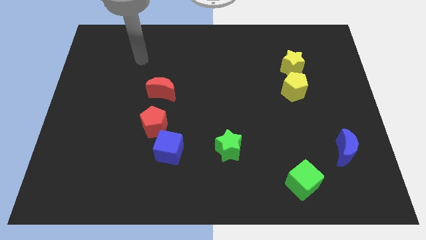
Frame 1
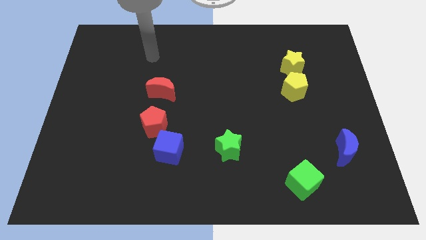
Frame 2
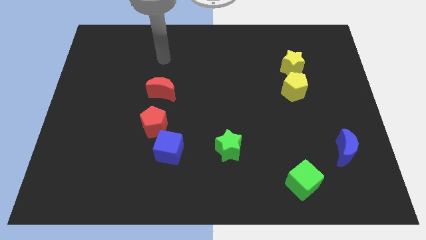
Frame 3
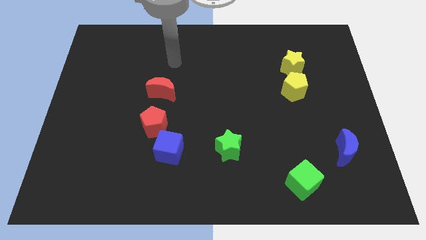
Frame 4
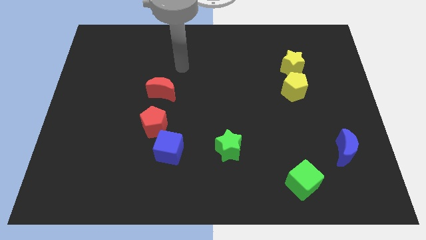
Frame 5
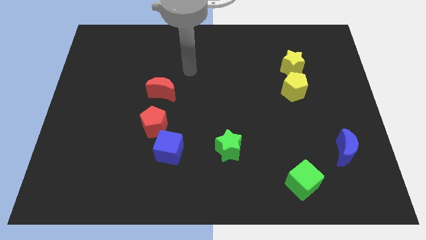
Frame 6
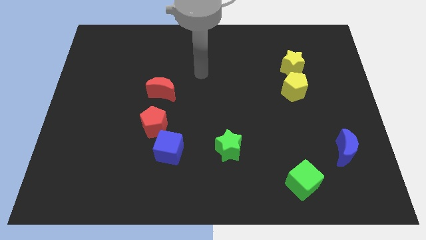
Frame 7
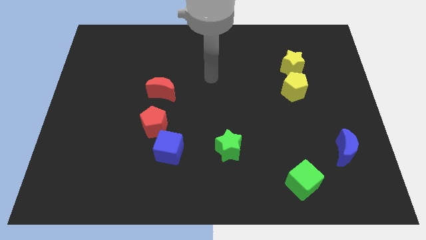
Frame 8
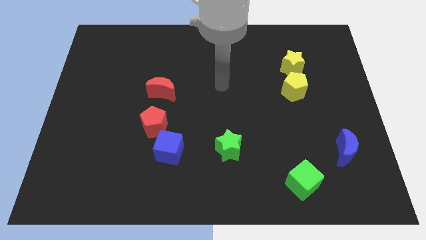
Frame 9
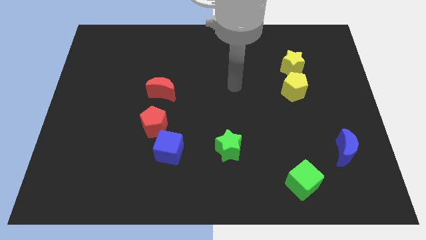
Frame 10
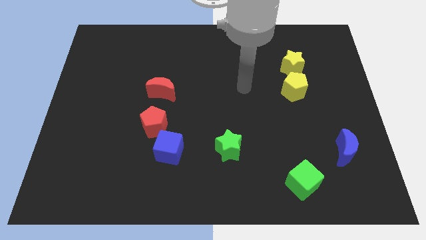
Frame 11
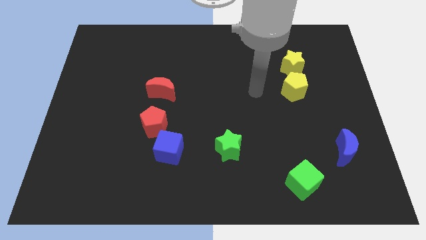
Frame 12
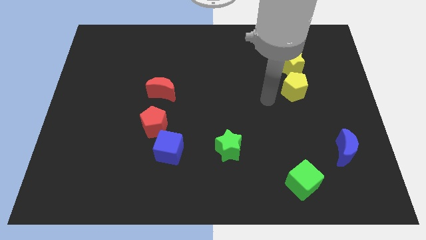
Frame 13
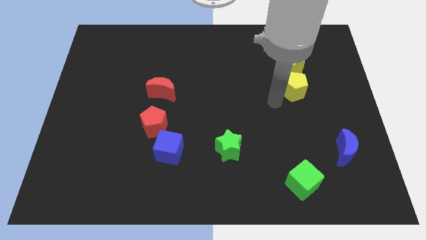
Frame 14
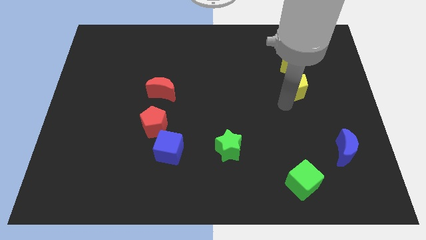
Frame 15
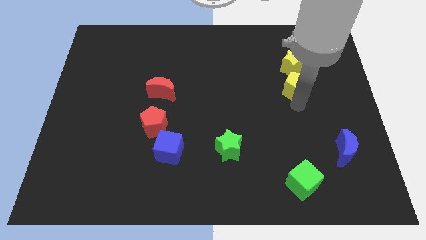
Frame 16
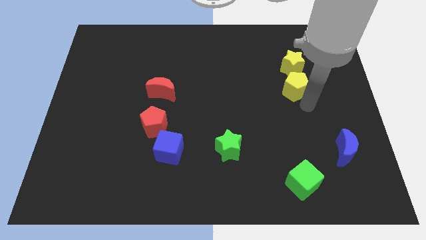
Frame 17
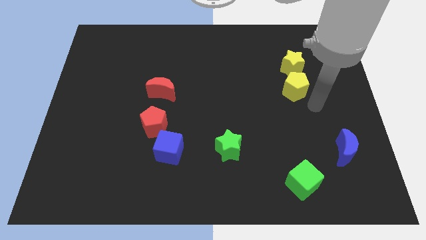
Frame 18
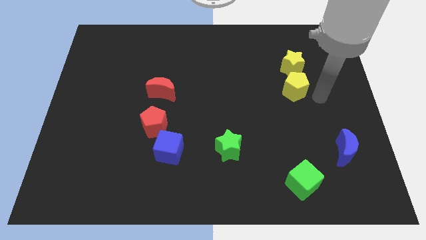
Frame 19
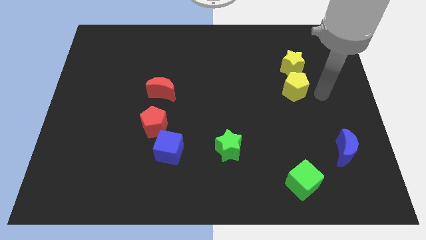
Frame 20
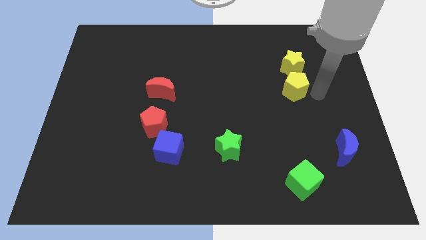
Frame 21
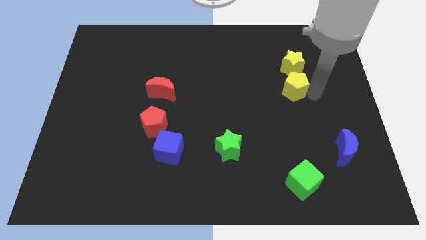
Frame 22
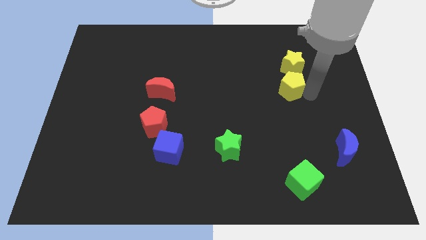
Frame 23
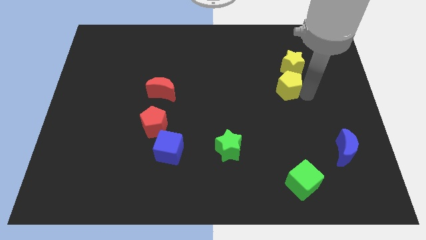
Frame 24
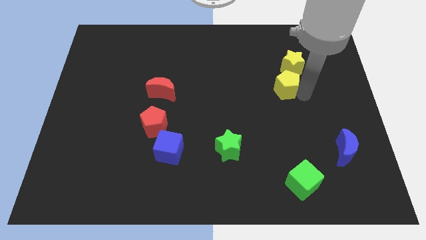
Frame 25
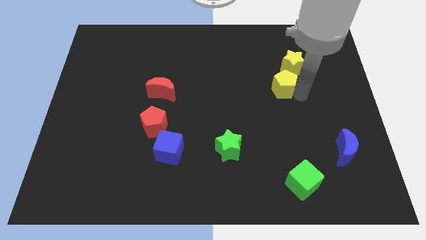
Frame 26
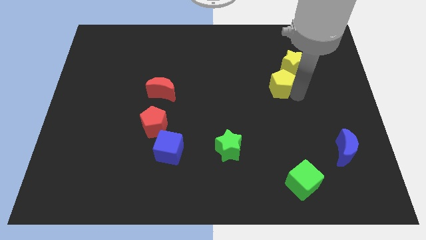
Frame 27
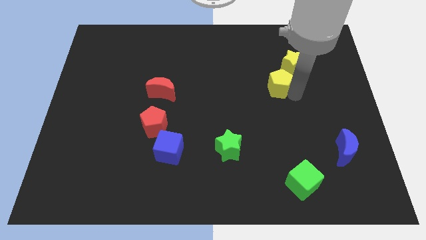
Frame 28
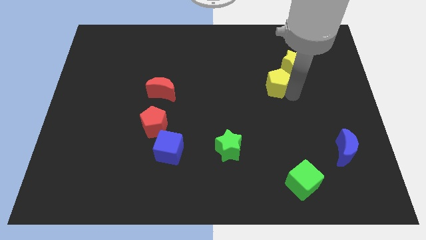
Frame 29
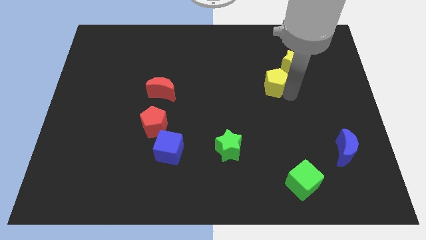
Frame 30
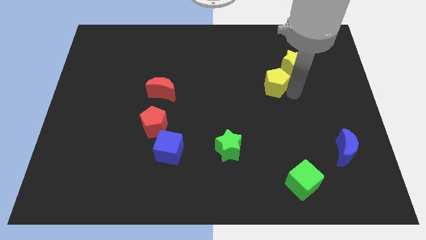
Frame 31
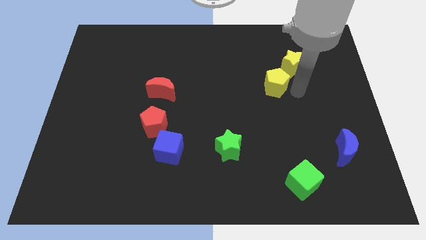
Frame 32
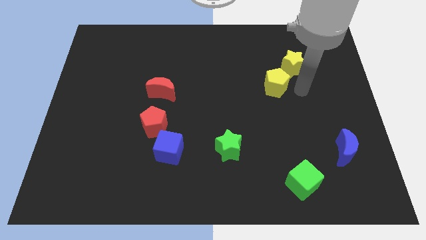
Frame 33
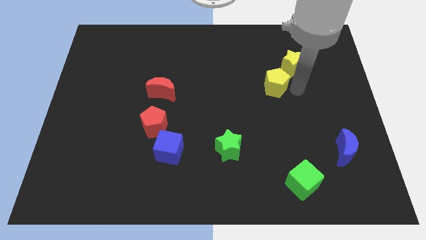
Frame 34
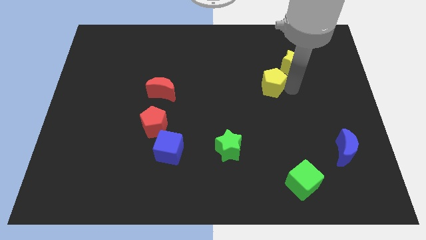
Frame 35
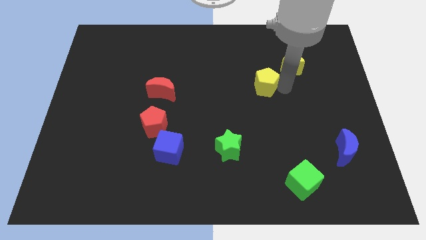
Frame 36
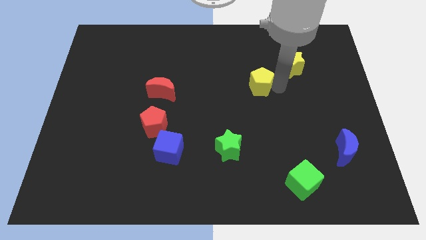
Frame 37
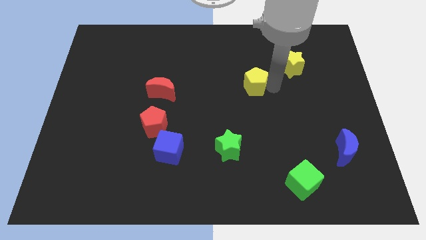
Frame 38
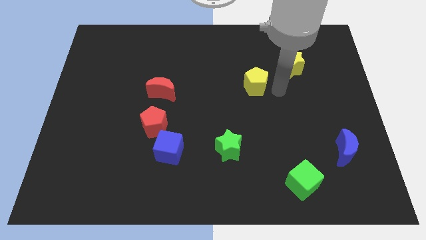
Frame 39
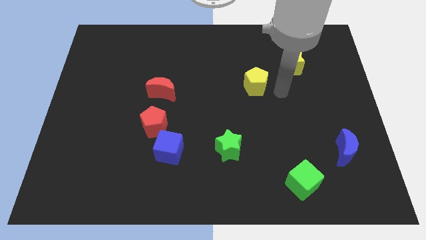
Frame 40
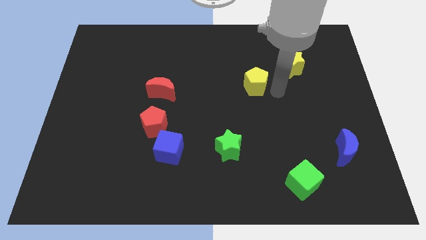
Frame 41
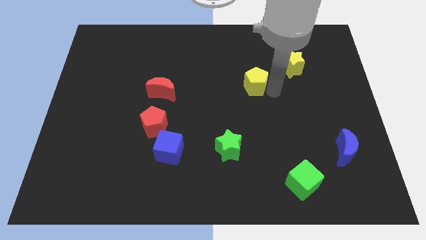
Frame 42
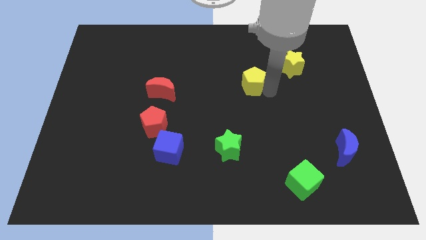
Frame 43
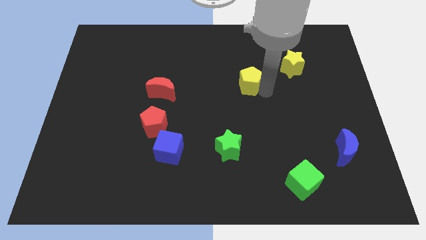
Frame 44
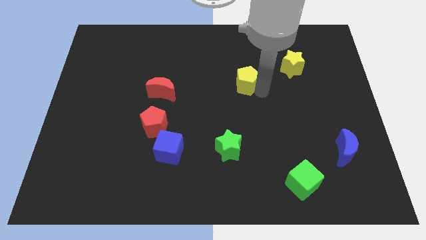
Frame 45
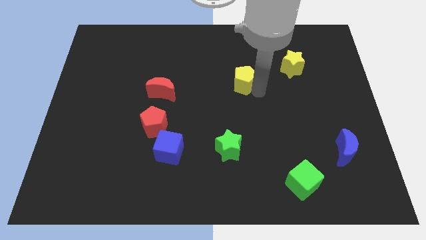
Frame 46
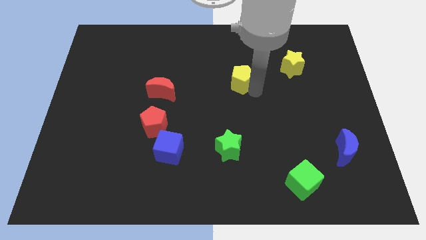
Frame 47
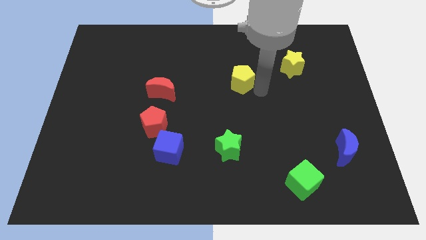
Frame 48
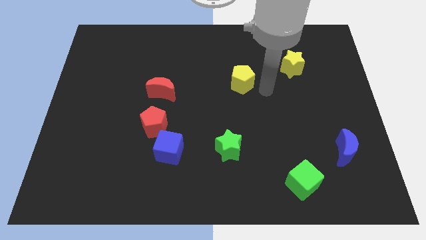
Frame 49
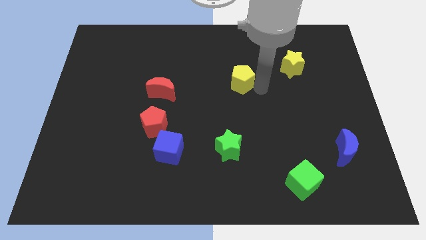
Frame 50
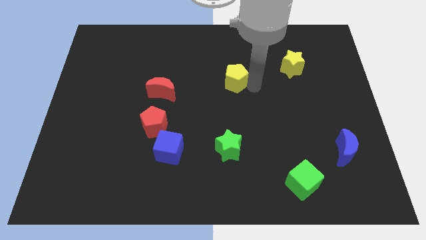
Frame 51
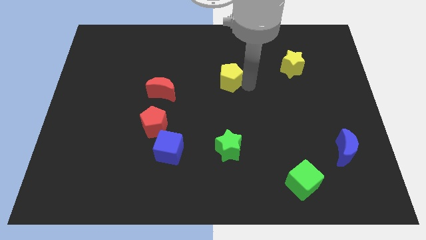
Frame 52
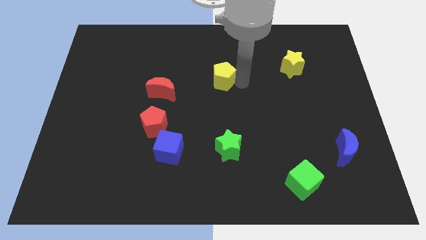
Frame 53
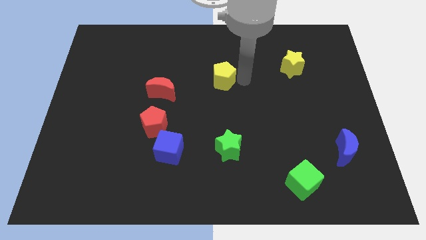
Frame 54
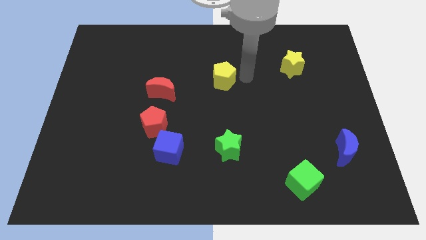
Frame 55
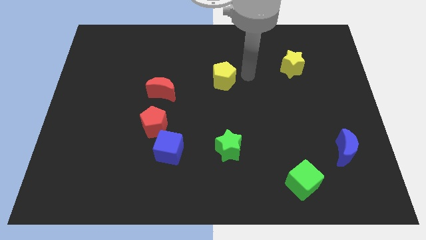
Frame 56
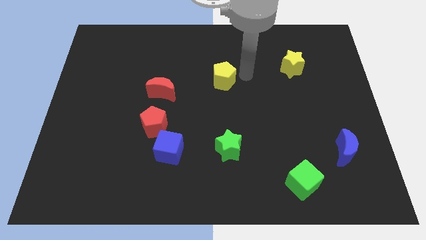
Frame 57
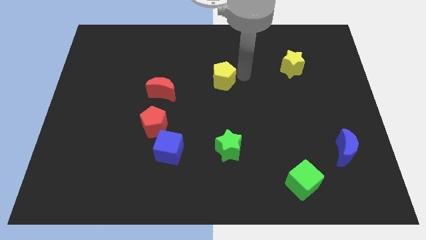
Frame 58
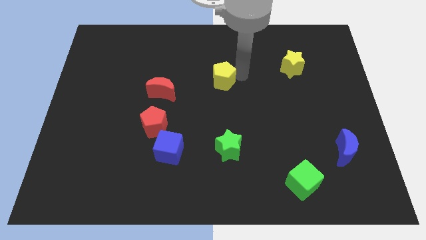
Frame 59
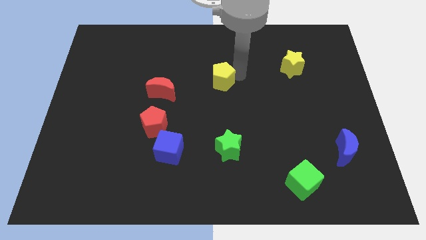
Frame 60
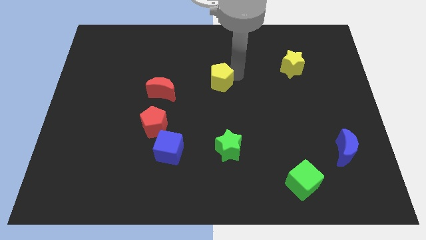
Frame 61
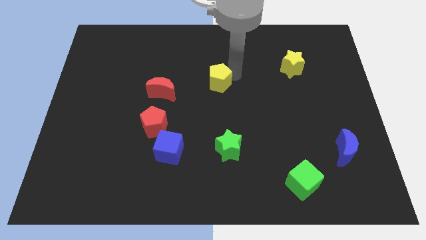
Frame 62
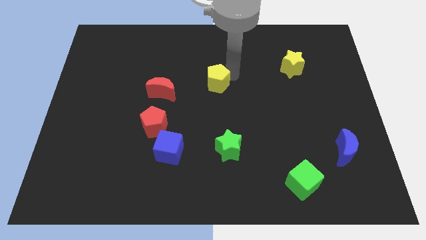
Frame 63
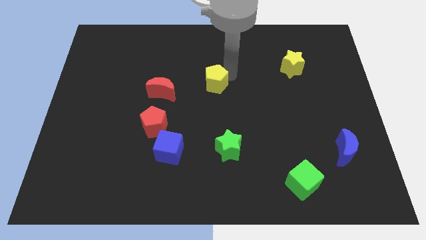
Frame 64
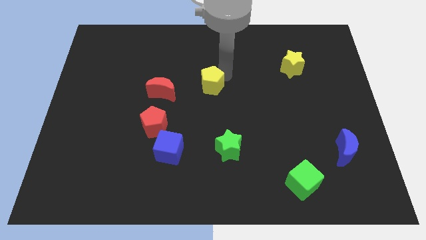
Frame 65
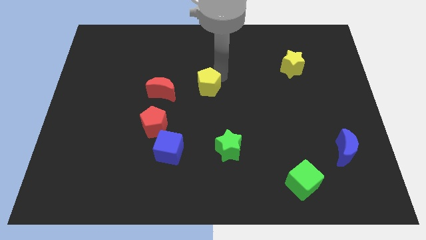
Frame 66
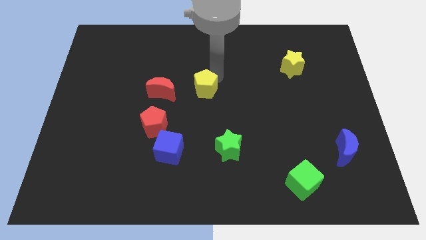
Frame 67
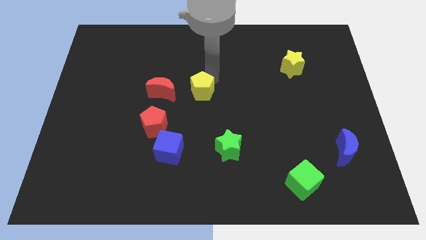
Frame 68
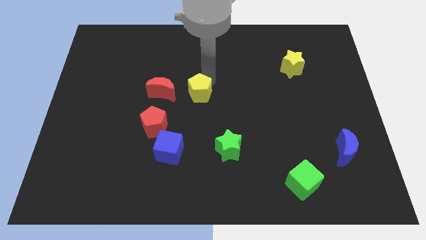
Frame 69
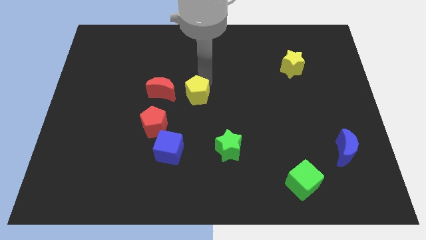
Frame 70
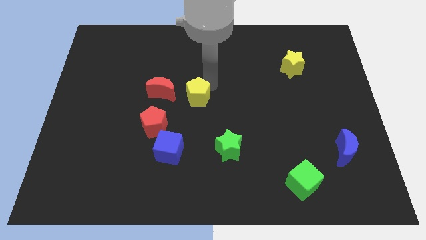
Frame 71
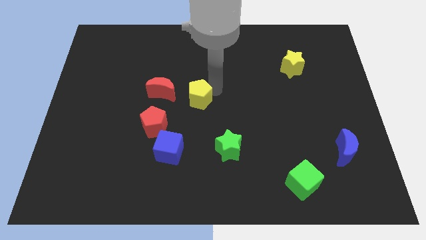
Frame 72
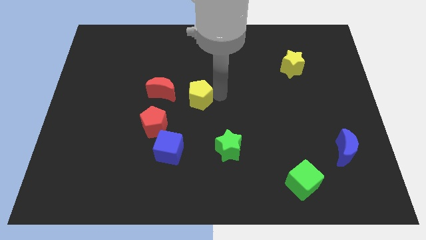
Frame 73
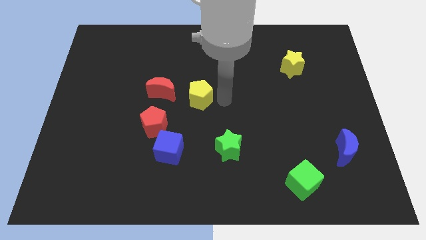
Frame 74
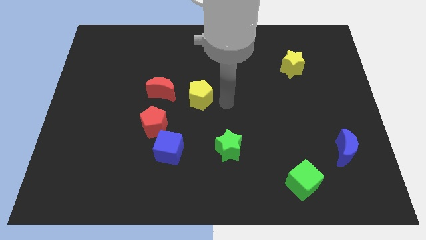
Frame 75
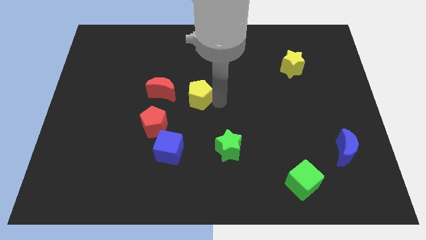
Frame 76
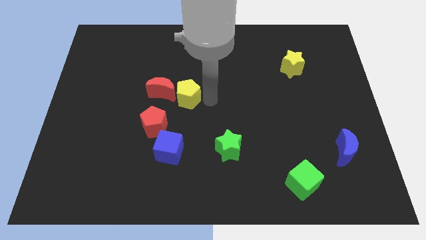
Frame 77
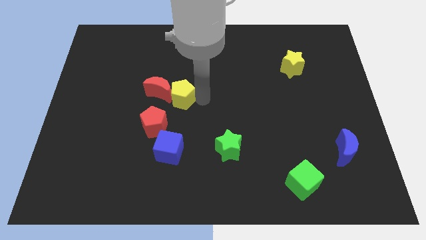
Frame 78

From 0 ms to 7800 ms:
push the yellow pentagon towards the red moon

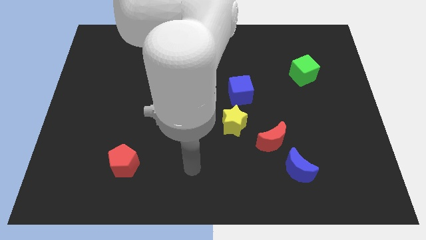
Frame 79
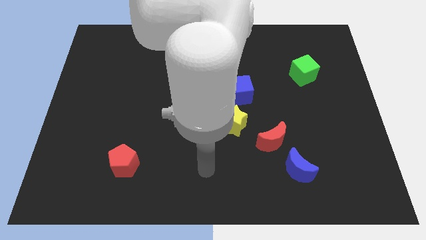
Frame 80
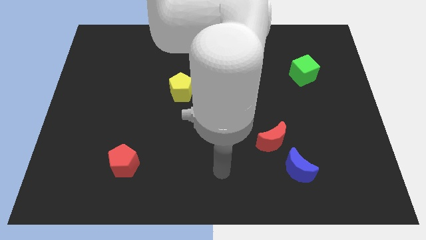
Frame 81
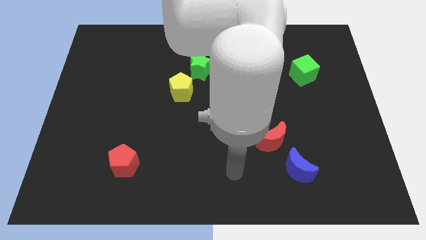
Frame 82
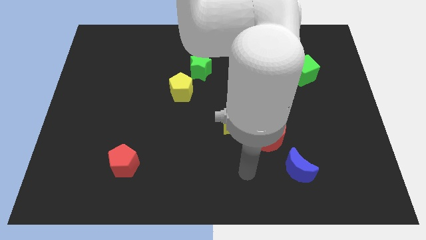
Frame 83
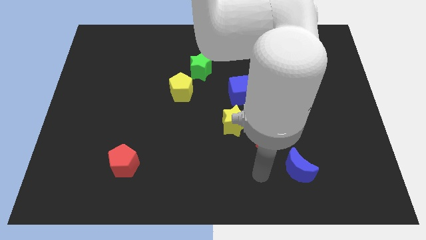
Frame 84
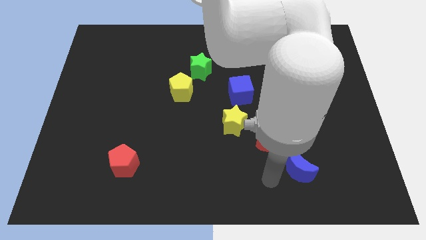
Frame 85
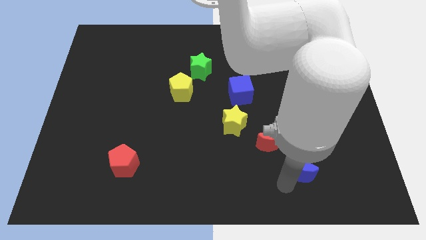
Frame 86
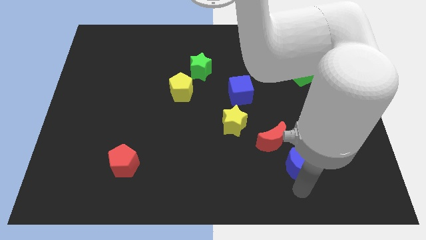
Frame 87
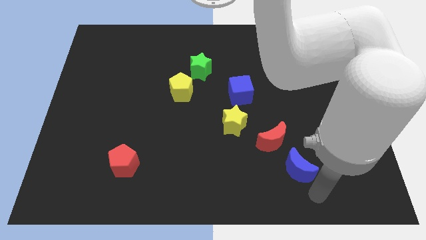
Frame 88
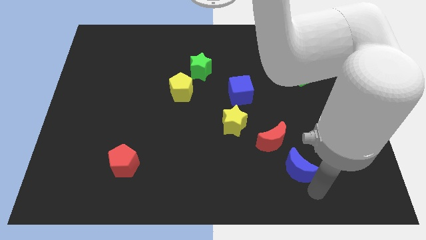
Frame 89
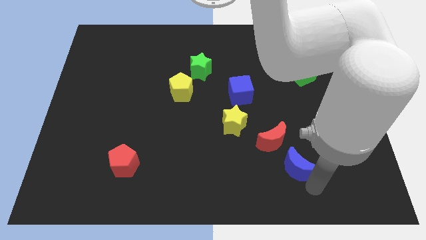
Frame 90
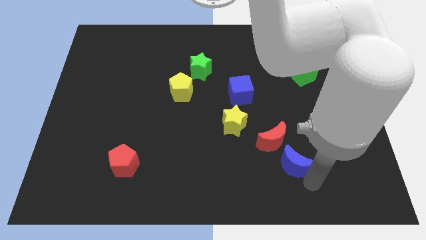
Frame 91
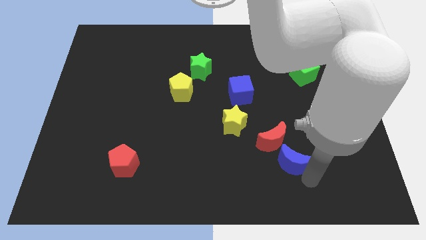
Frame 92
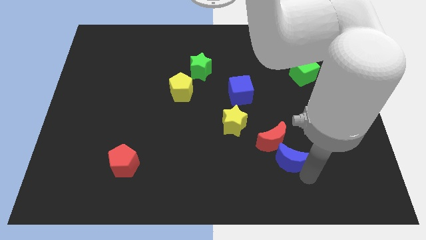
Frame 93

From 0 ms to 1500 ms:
move the blue moon close to the red moon
